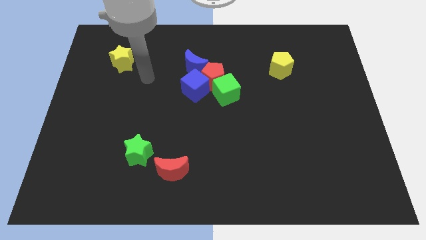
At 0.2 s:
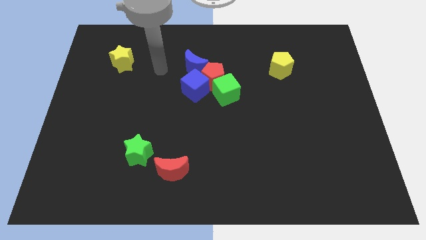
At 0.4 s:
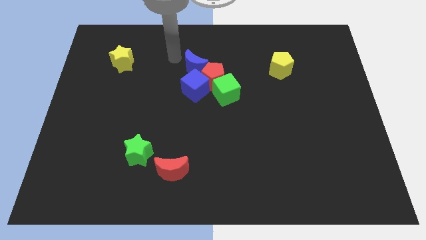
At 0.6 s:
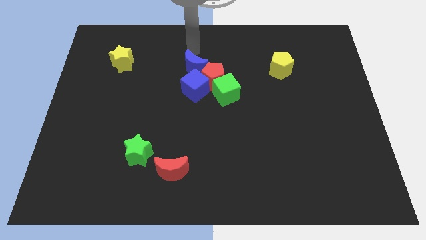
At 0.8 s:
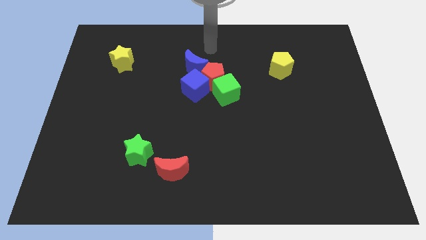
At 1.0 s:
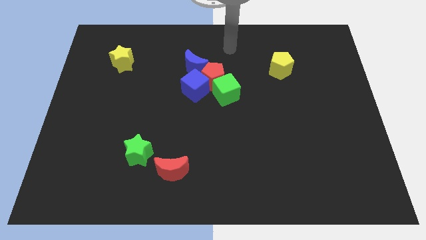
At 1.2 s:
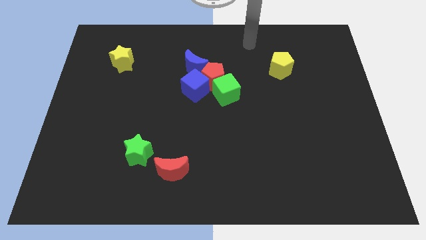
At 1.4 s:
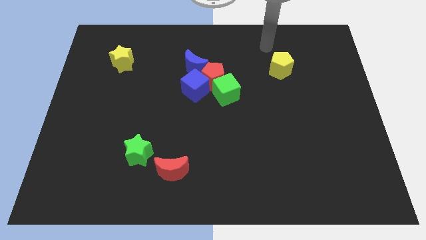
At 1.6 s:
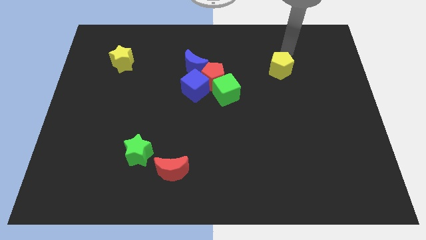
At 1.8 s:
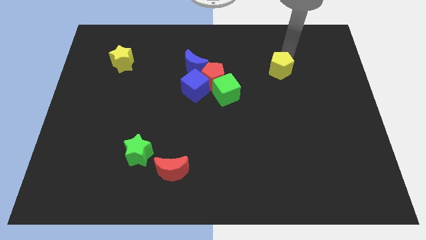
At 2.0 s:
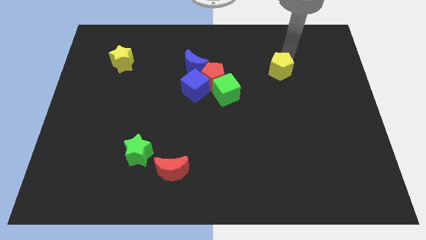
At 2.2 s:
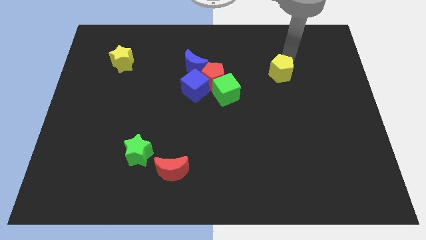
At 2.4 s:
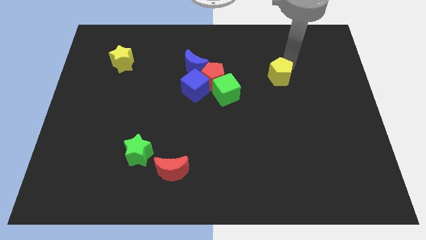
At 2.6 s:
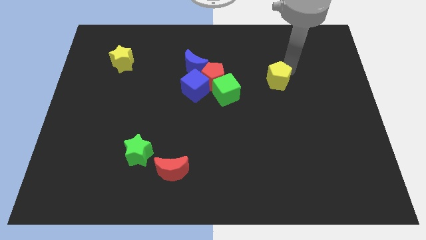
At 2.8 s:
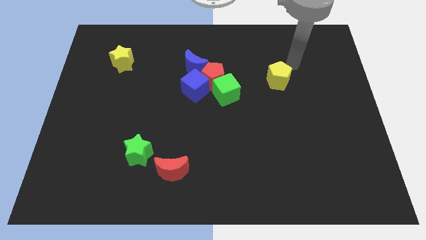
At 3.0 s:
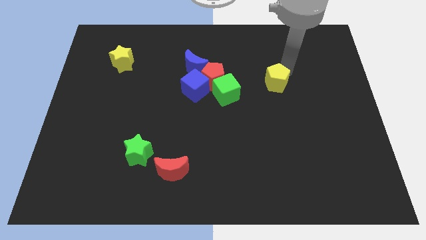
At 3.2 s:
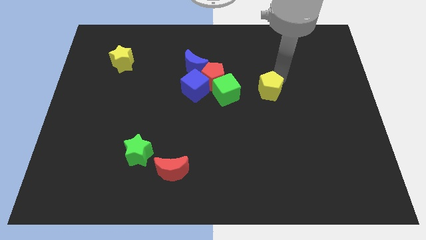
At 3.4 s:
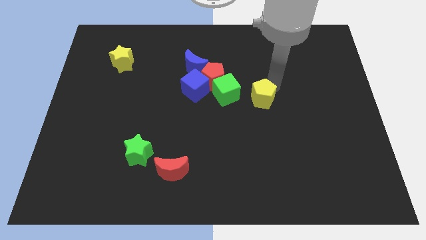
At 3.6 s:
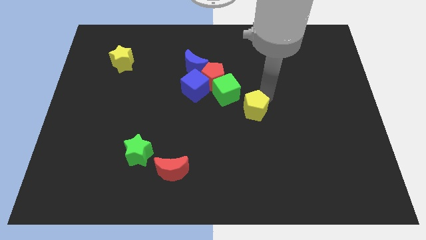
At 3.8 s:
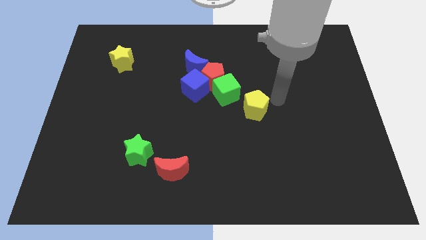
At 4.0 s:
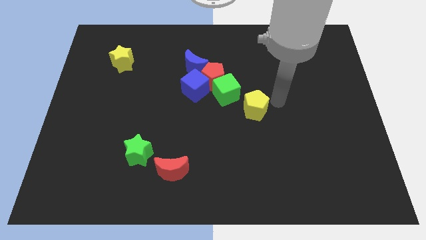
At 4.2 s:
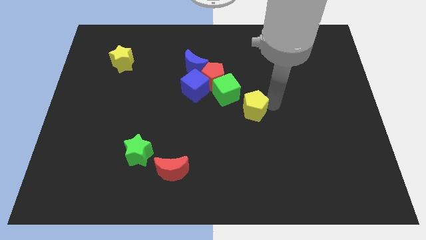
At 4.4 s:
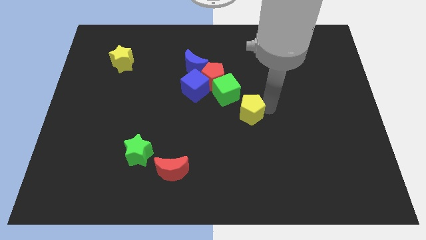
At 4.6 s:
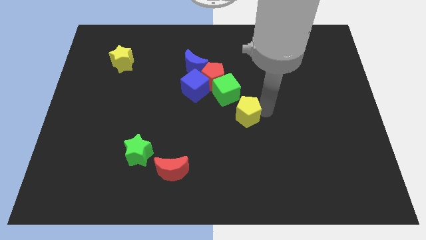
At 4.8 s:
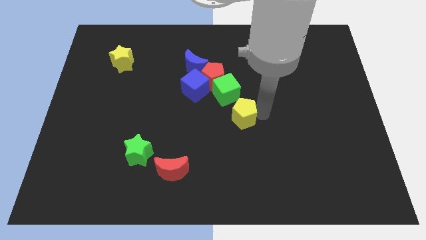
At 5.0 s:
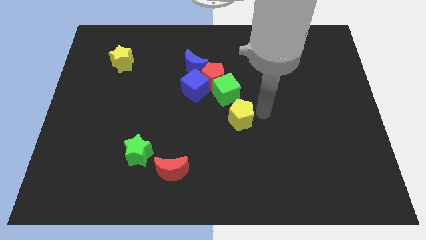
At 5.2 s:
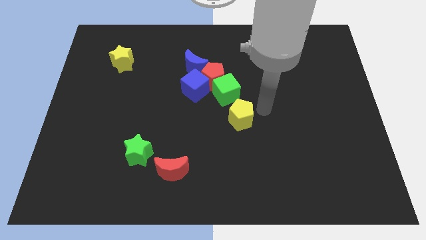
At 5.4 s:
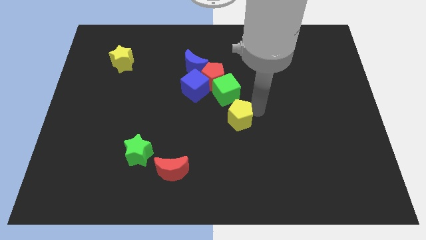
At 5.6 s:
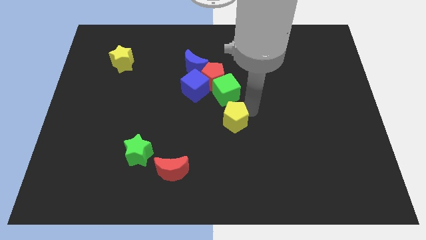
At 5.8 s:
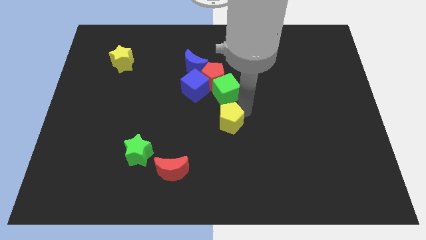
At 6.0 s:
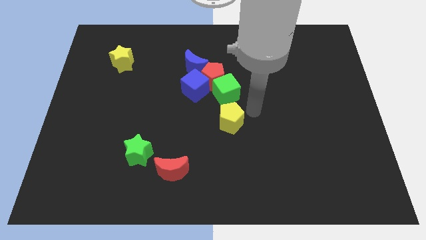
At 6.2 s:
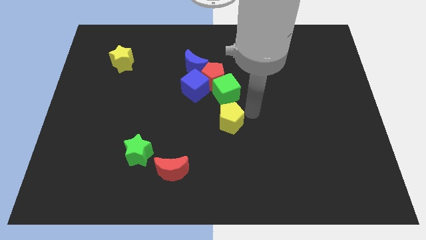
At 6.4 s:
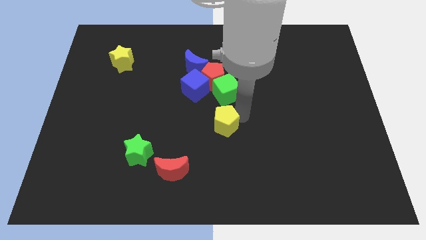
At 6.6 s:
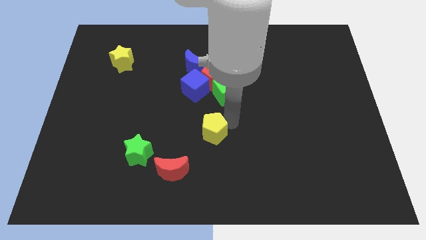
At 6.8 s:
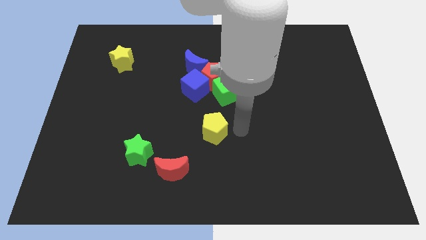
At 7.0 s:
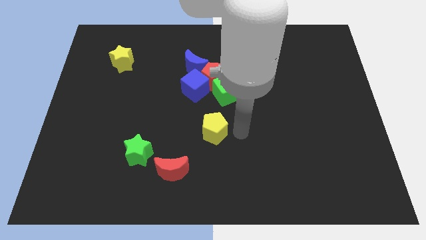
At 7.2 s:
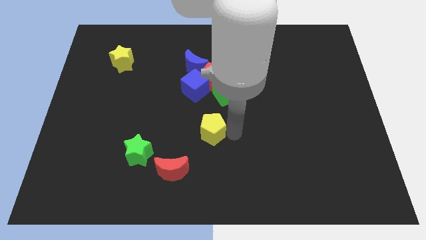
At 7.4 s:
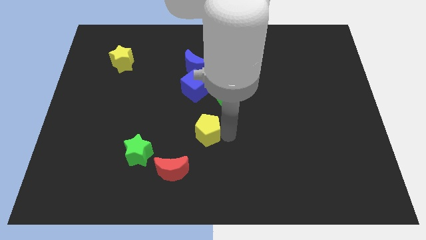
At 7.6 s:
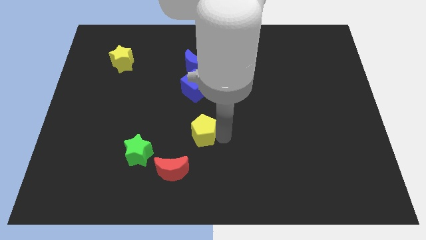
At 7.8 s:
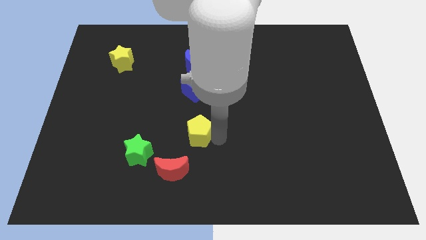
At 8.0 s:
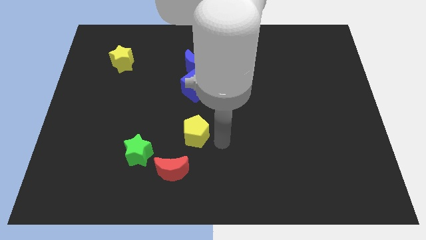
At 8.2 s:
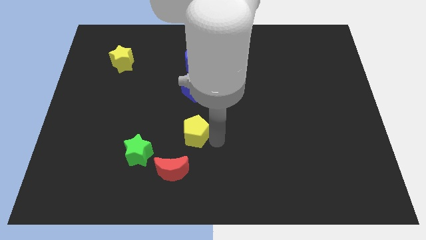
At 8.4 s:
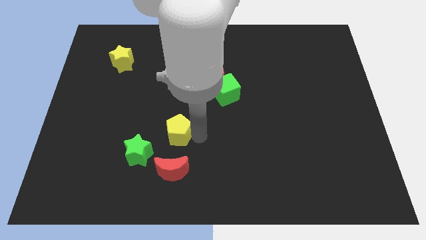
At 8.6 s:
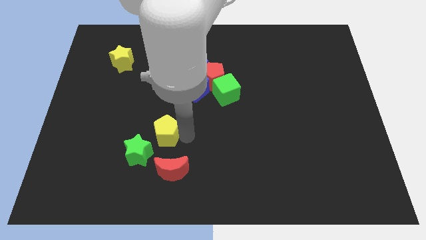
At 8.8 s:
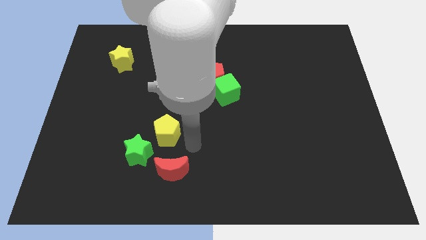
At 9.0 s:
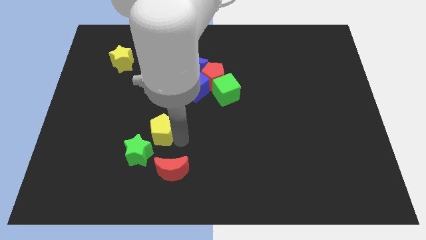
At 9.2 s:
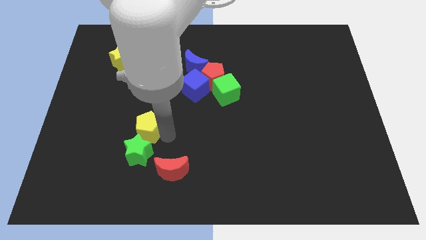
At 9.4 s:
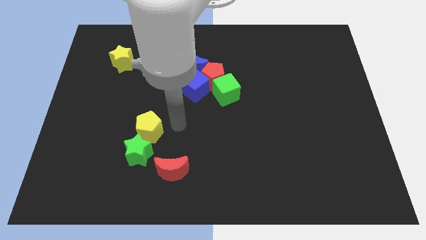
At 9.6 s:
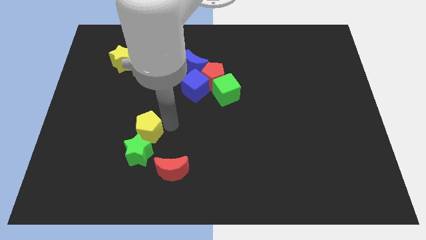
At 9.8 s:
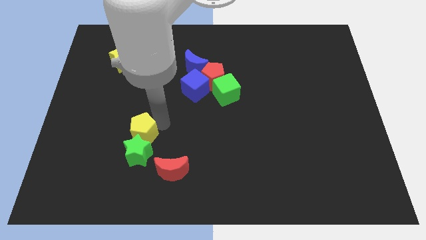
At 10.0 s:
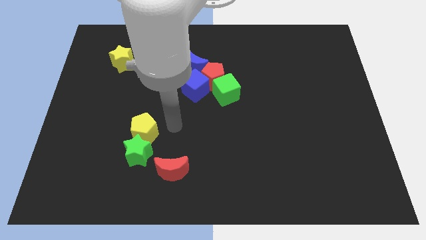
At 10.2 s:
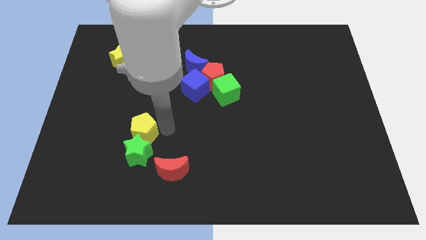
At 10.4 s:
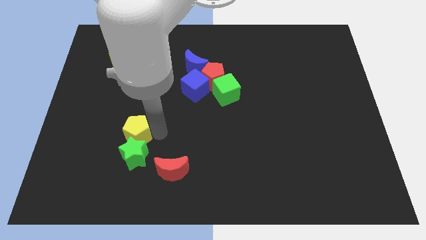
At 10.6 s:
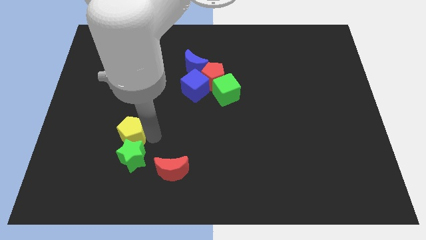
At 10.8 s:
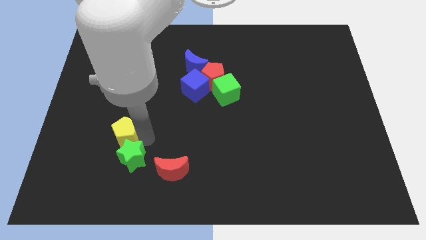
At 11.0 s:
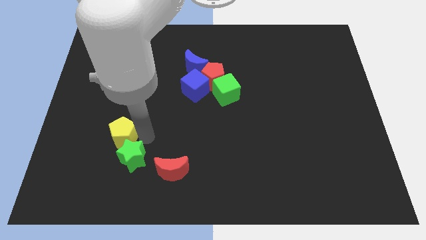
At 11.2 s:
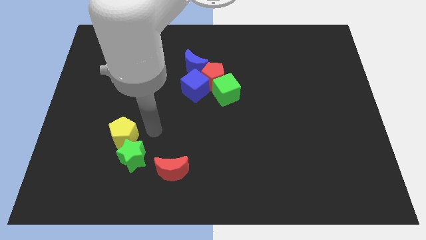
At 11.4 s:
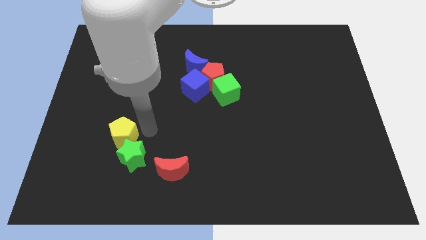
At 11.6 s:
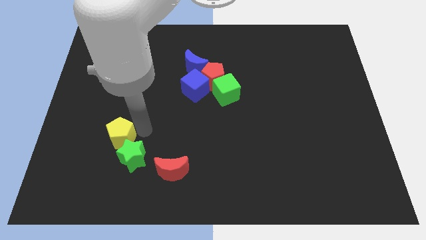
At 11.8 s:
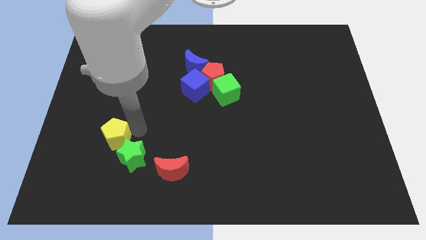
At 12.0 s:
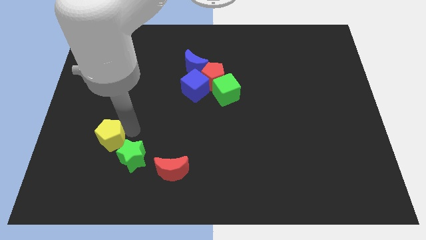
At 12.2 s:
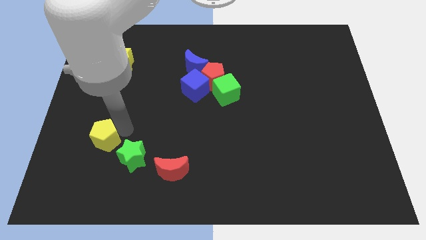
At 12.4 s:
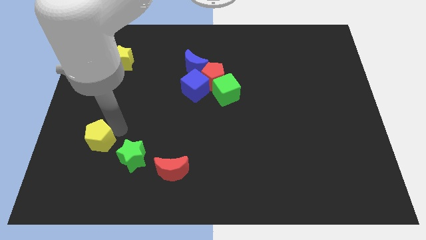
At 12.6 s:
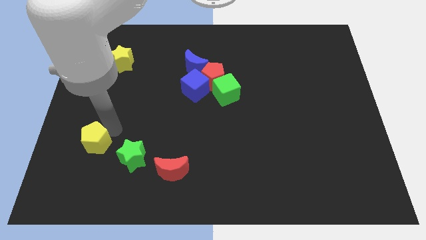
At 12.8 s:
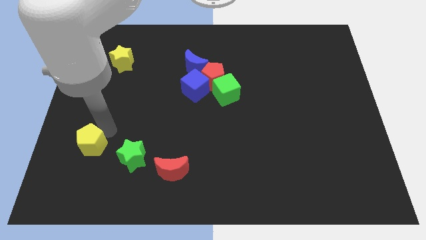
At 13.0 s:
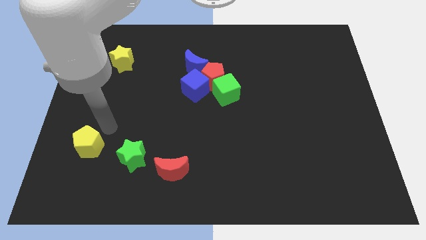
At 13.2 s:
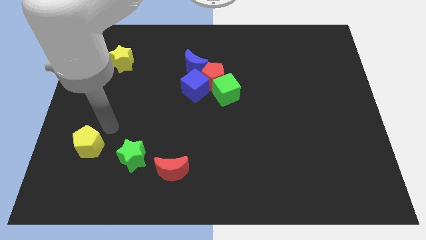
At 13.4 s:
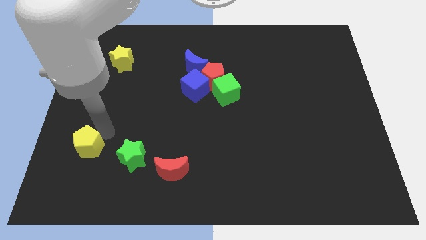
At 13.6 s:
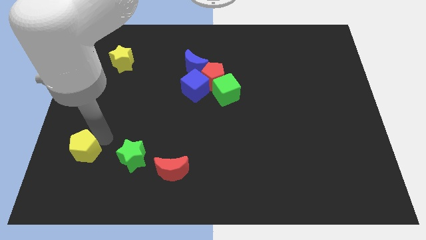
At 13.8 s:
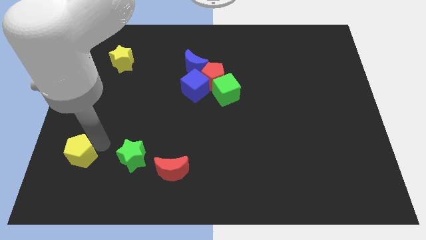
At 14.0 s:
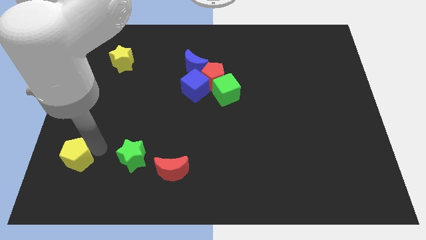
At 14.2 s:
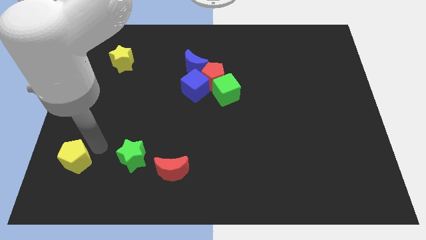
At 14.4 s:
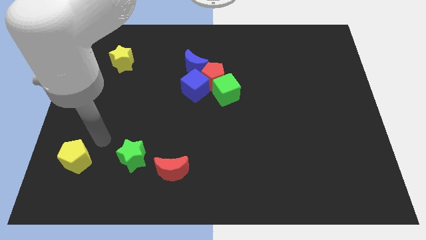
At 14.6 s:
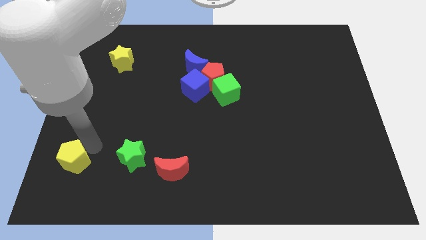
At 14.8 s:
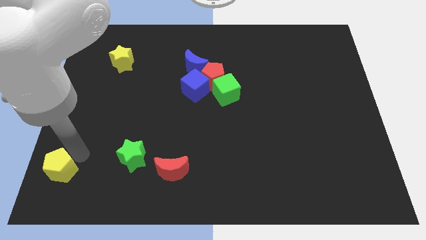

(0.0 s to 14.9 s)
push the yellow pentagon to the bottom left corner
